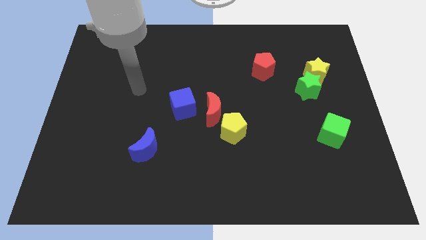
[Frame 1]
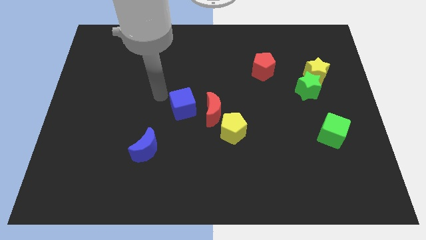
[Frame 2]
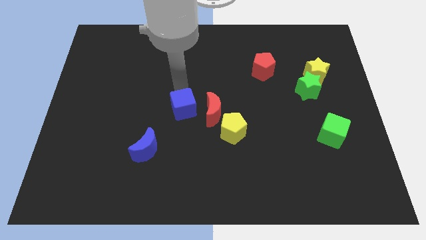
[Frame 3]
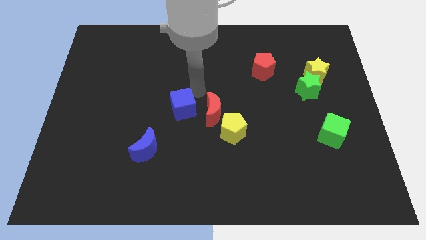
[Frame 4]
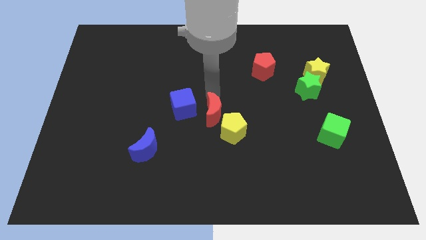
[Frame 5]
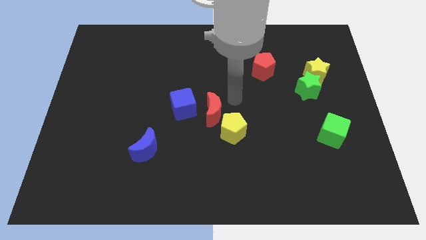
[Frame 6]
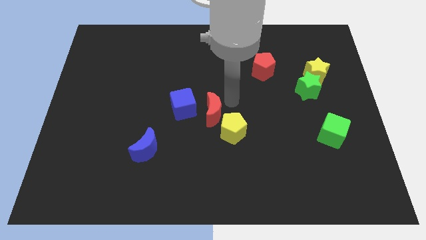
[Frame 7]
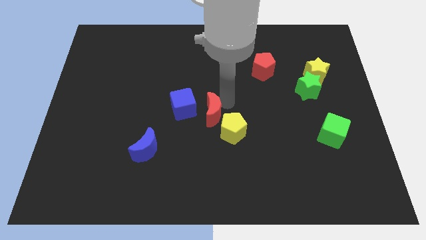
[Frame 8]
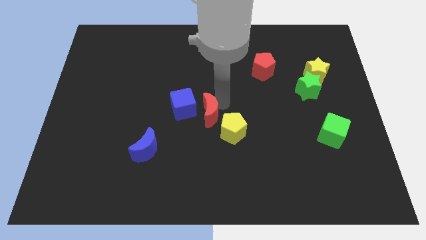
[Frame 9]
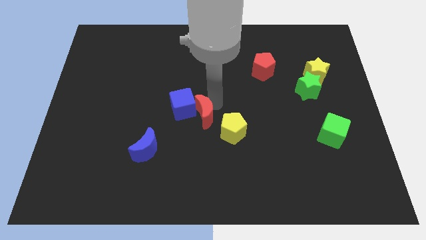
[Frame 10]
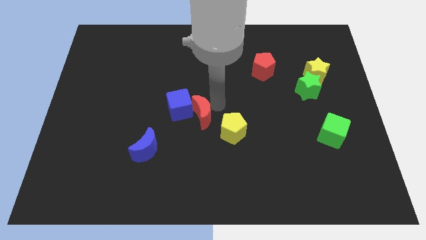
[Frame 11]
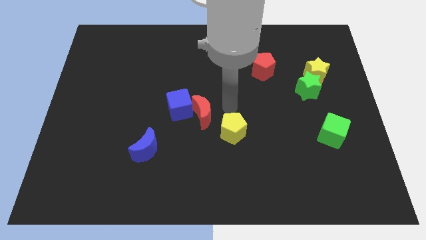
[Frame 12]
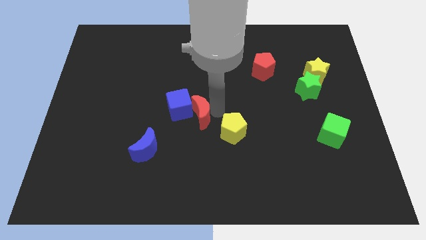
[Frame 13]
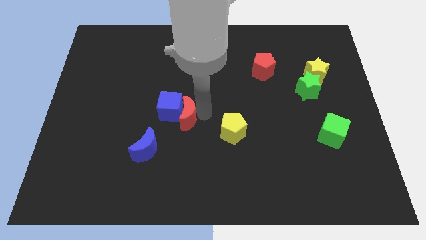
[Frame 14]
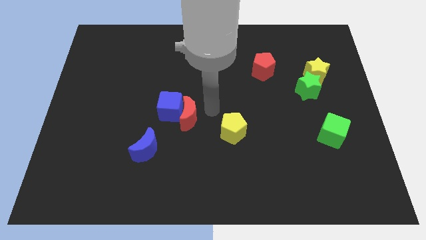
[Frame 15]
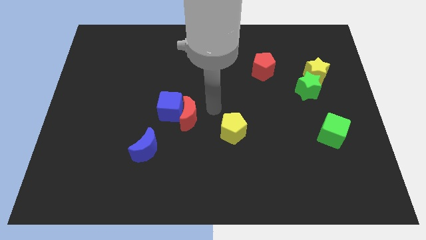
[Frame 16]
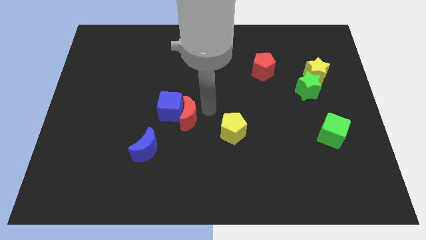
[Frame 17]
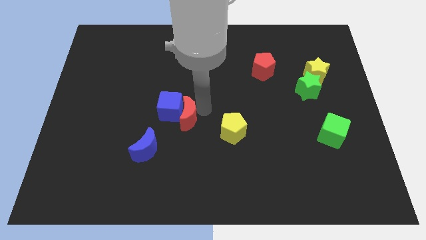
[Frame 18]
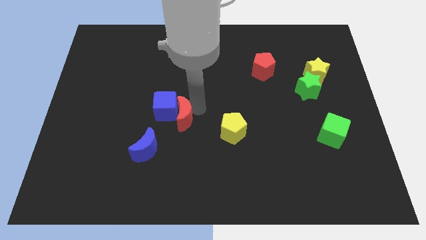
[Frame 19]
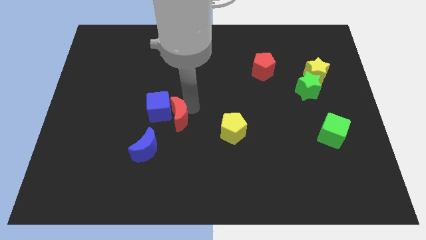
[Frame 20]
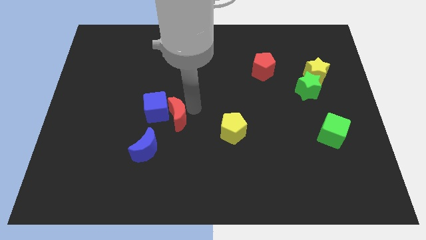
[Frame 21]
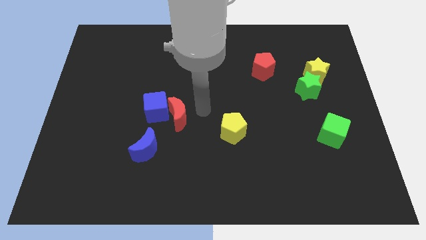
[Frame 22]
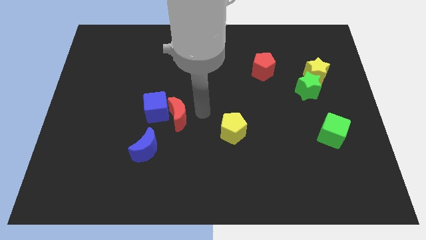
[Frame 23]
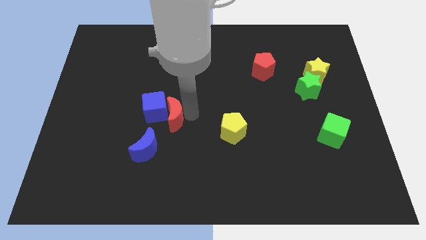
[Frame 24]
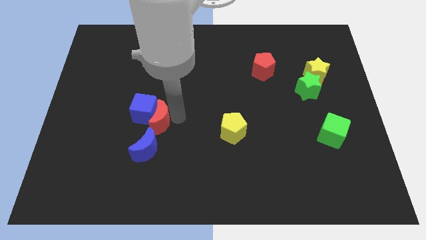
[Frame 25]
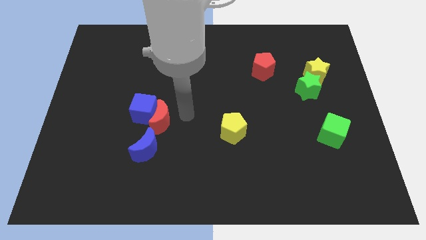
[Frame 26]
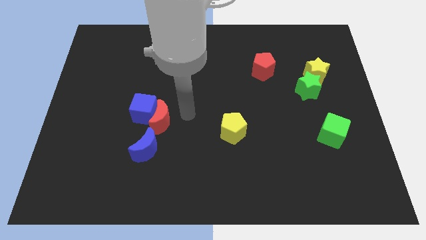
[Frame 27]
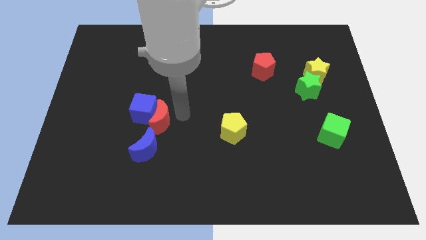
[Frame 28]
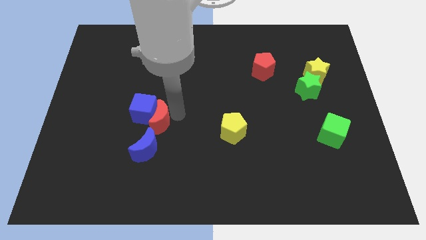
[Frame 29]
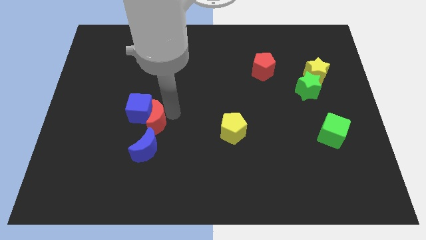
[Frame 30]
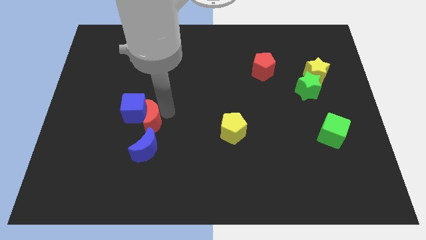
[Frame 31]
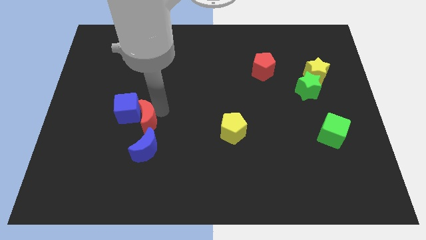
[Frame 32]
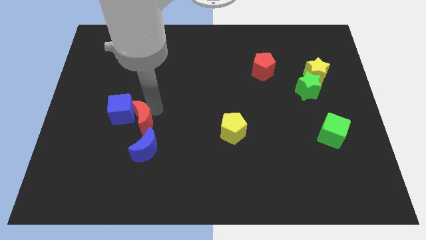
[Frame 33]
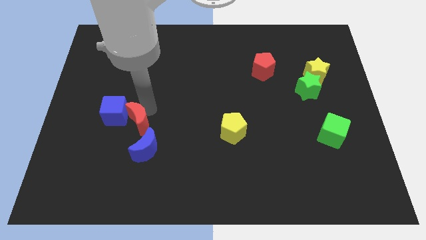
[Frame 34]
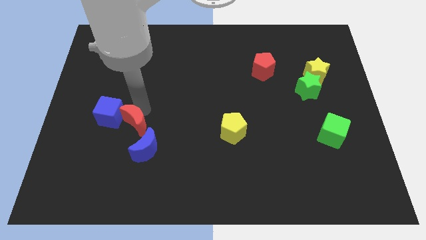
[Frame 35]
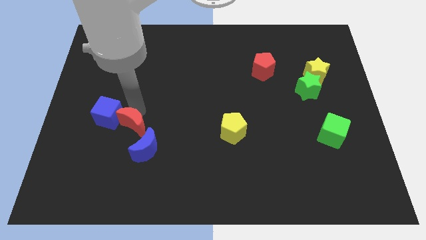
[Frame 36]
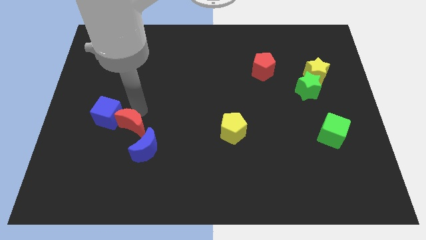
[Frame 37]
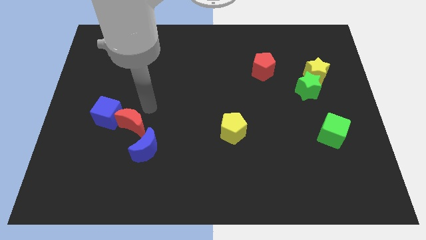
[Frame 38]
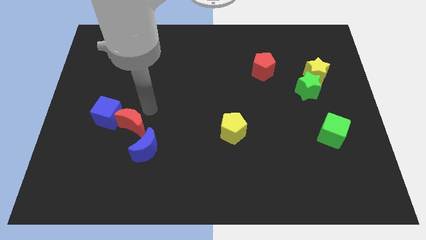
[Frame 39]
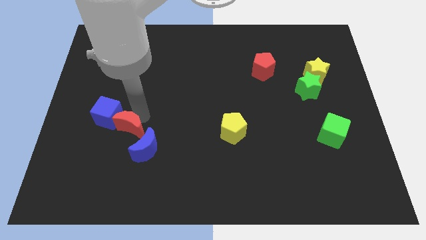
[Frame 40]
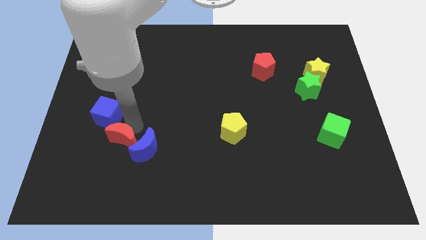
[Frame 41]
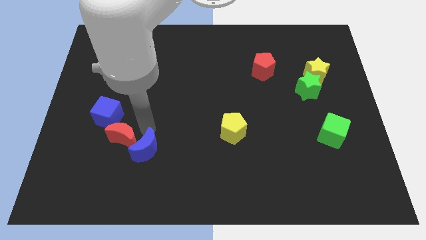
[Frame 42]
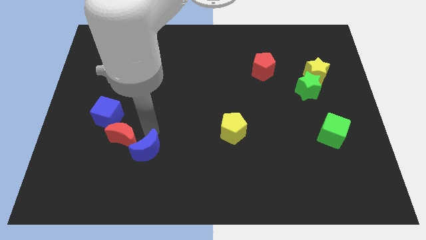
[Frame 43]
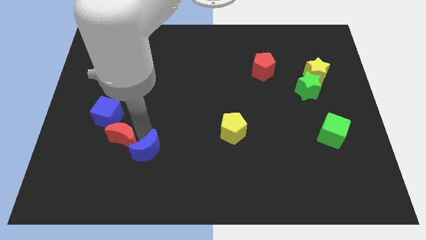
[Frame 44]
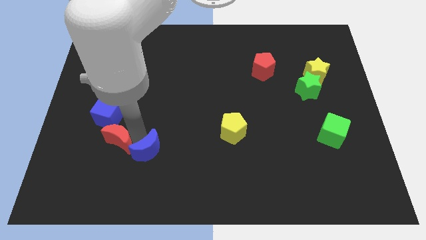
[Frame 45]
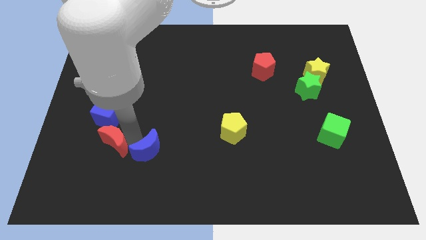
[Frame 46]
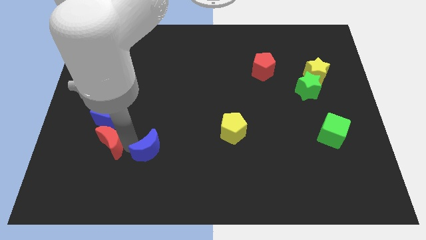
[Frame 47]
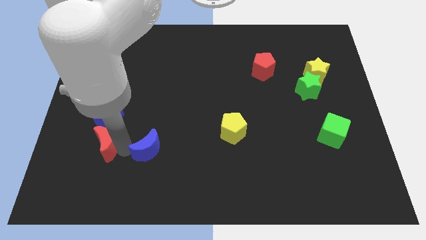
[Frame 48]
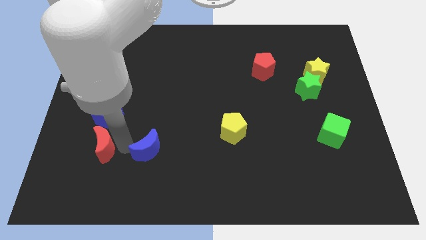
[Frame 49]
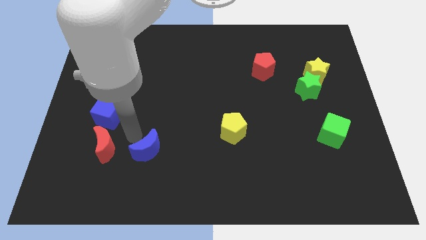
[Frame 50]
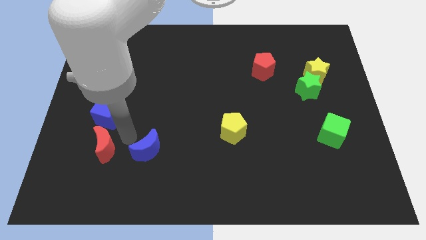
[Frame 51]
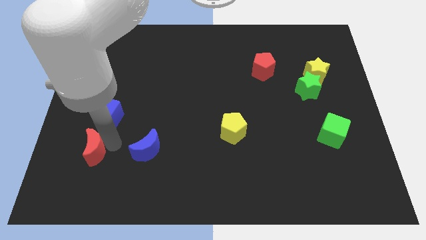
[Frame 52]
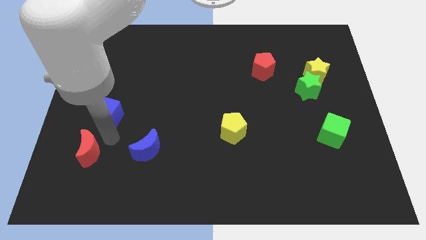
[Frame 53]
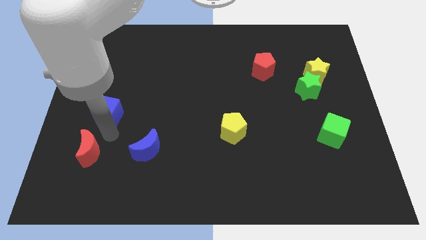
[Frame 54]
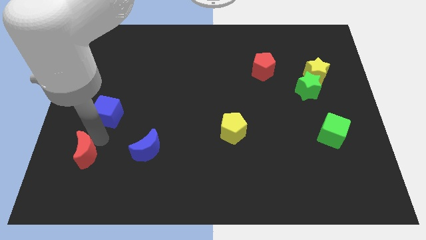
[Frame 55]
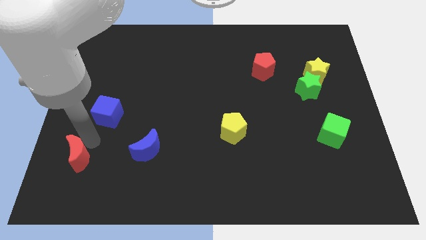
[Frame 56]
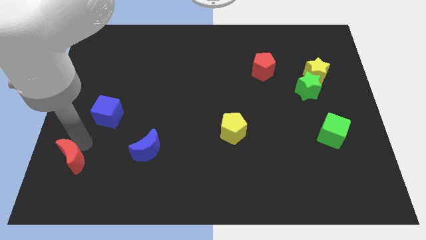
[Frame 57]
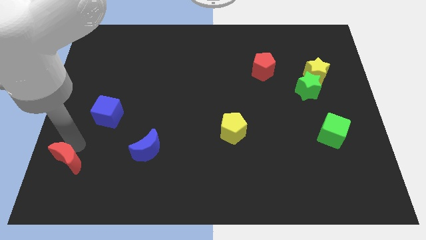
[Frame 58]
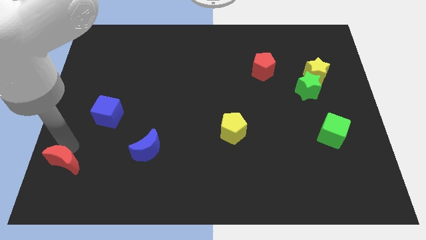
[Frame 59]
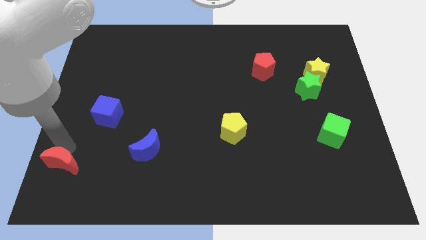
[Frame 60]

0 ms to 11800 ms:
put the red moon to the bottom left of the board
